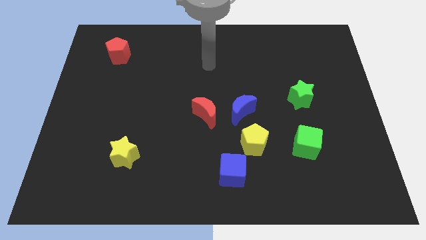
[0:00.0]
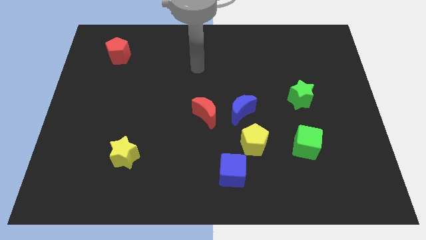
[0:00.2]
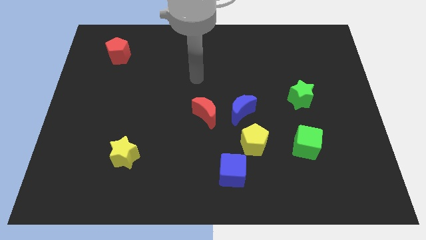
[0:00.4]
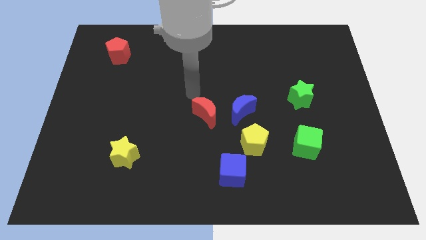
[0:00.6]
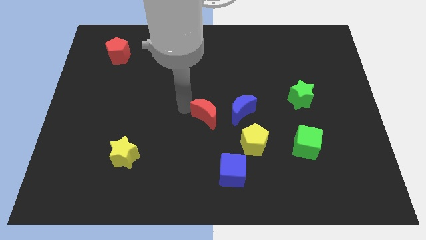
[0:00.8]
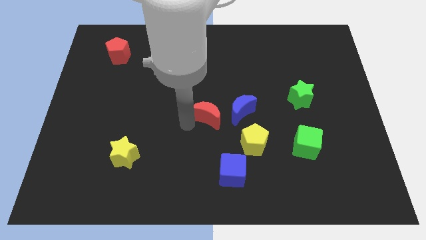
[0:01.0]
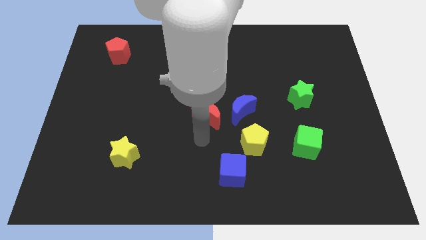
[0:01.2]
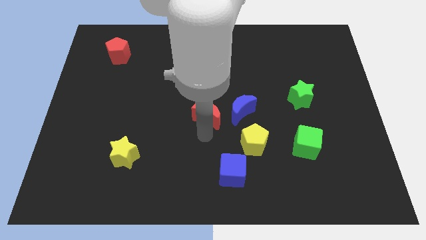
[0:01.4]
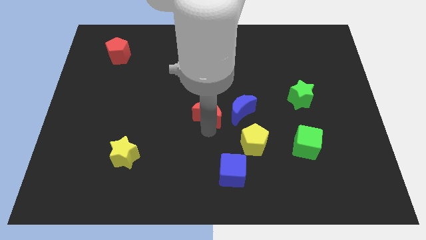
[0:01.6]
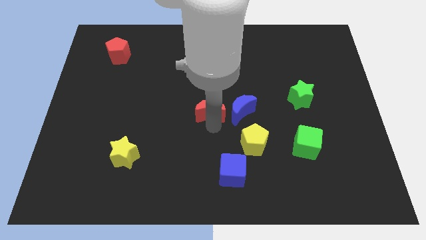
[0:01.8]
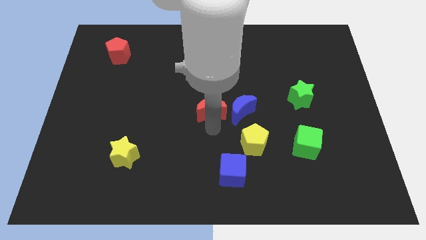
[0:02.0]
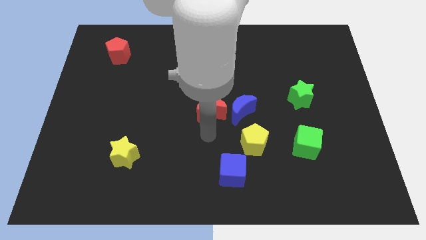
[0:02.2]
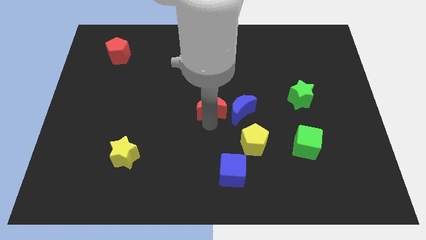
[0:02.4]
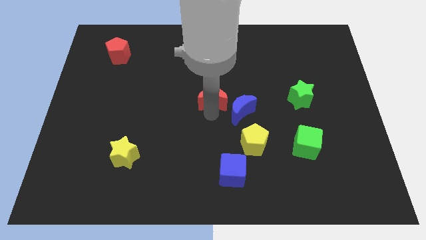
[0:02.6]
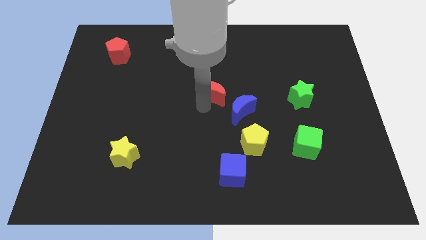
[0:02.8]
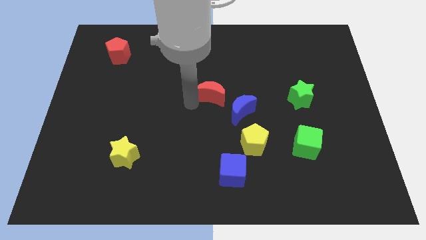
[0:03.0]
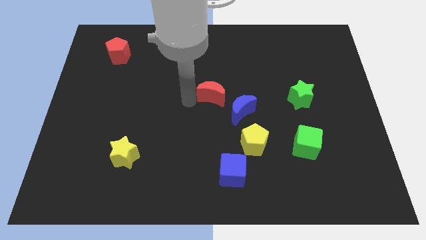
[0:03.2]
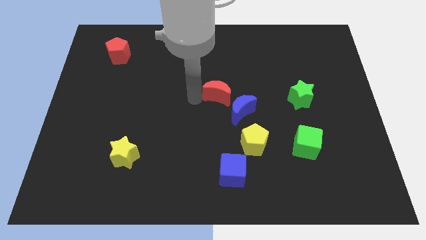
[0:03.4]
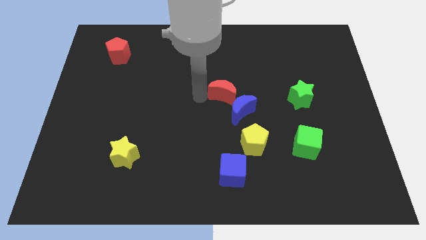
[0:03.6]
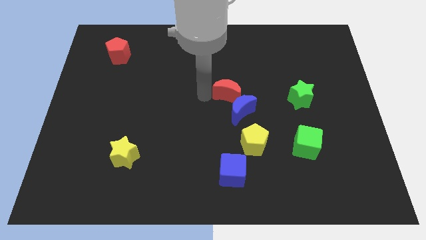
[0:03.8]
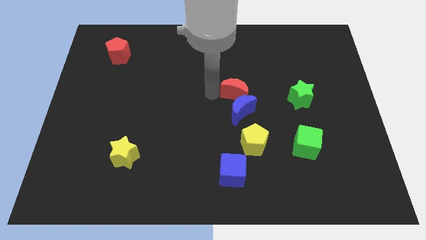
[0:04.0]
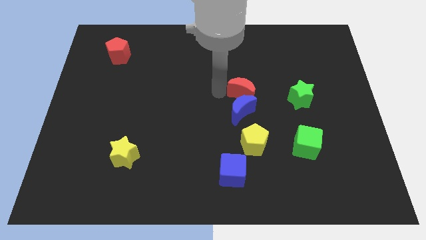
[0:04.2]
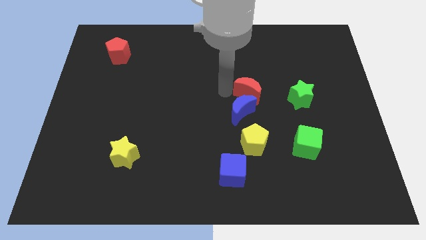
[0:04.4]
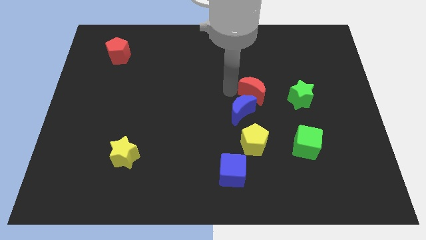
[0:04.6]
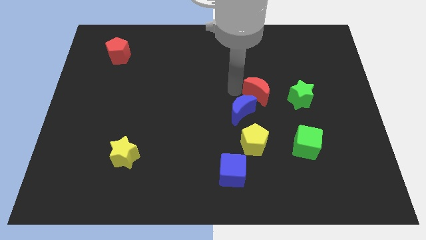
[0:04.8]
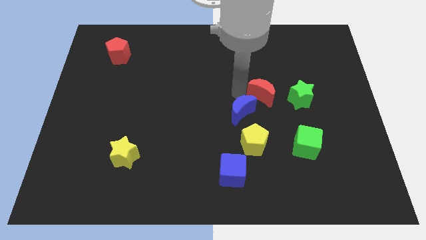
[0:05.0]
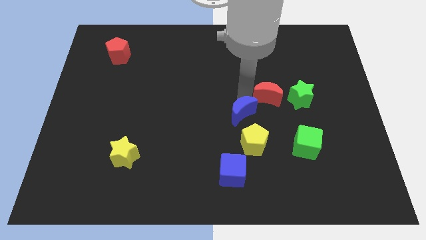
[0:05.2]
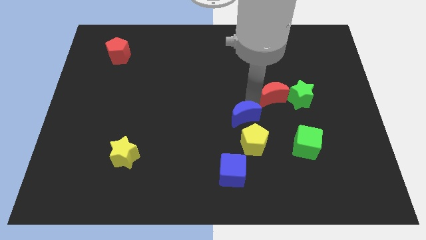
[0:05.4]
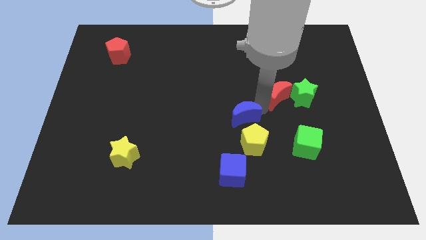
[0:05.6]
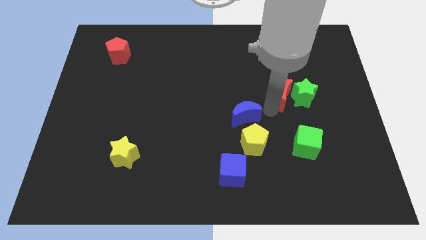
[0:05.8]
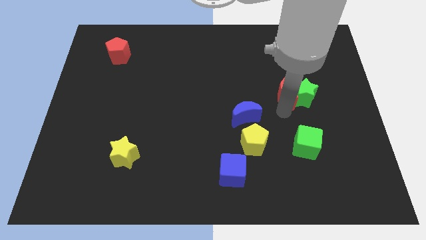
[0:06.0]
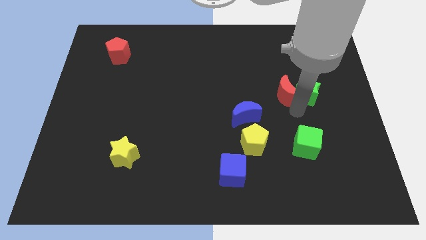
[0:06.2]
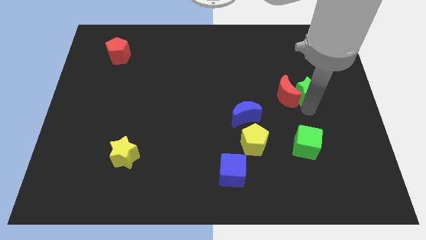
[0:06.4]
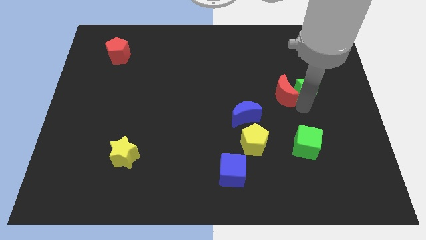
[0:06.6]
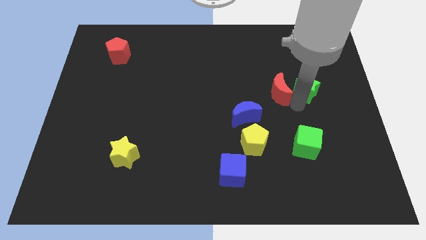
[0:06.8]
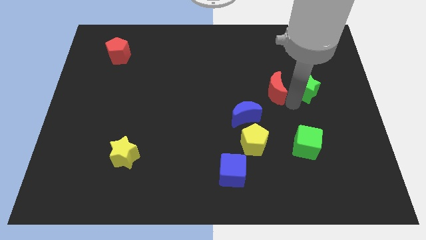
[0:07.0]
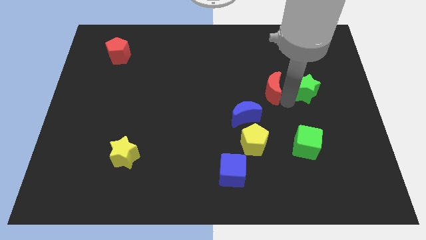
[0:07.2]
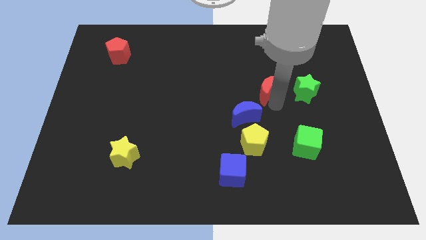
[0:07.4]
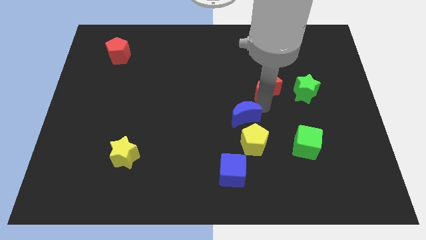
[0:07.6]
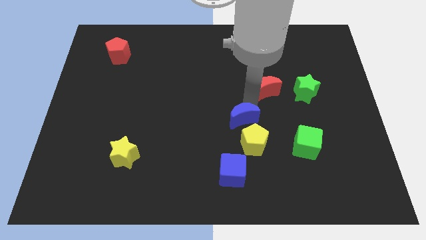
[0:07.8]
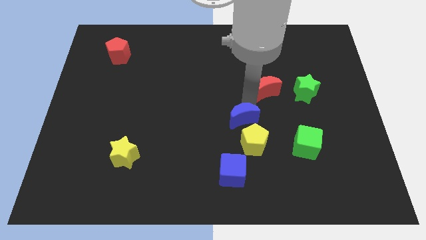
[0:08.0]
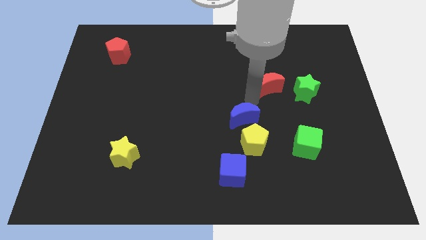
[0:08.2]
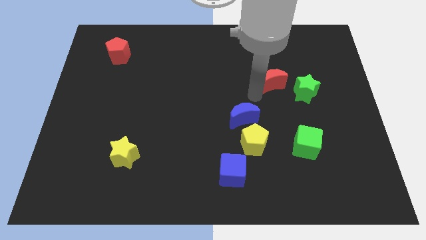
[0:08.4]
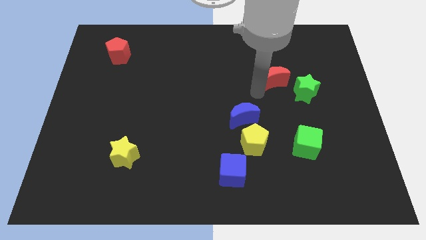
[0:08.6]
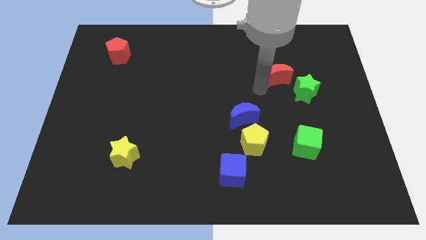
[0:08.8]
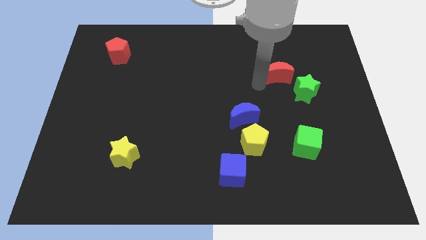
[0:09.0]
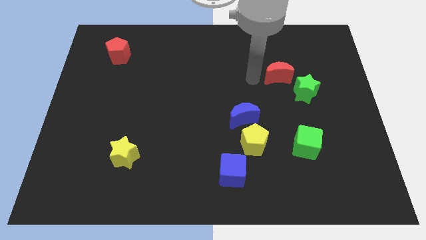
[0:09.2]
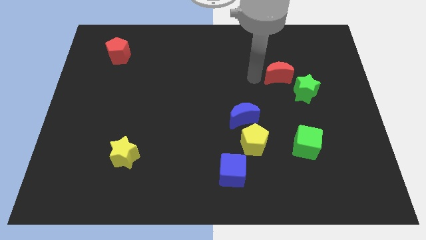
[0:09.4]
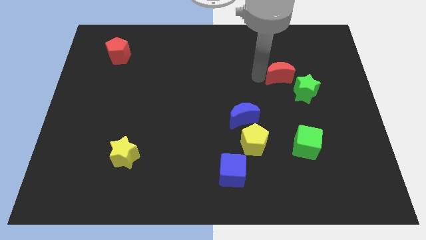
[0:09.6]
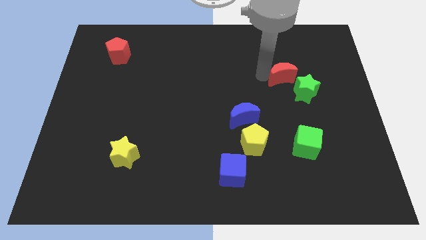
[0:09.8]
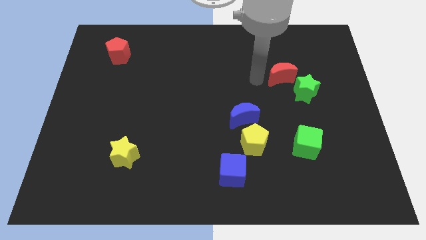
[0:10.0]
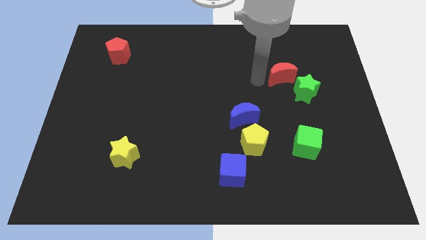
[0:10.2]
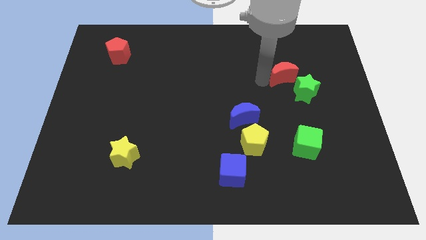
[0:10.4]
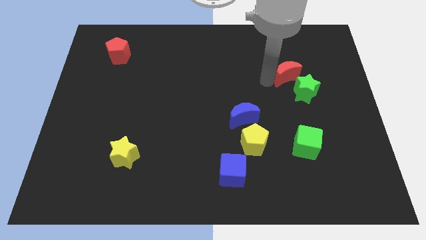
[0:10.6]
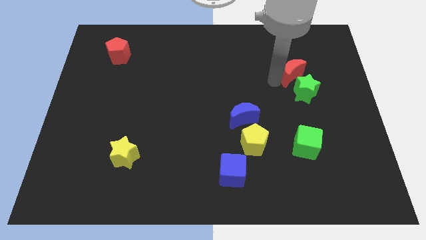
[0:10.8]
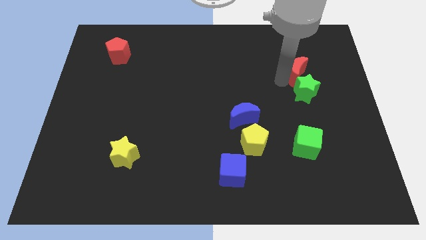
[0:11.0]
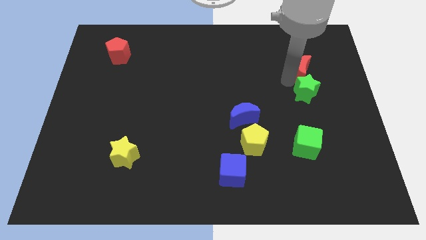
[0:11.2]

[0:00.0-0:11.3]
slide the red moon diagonally up and to the right of the green star

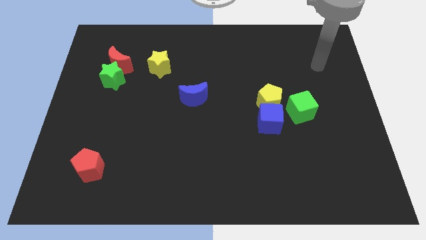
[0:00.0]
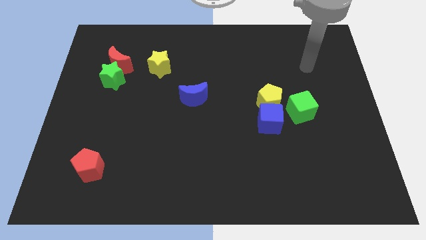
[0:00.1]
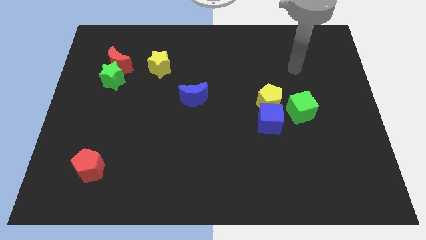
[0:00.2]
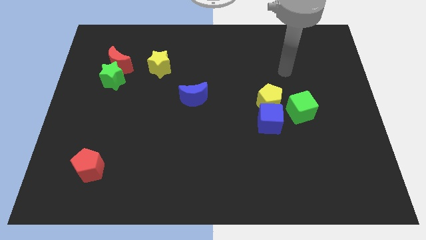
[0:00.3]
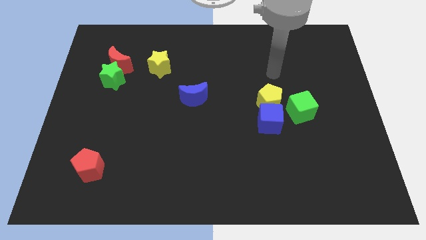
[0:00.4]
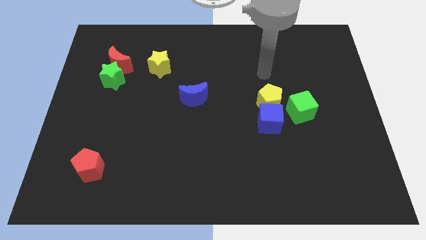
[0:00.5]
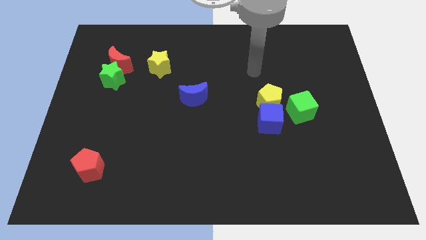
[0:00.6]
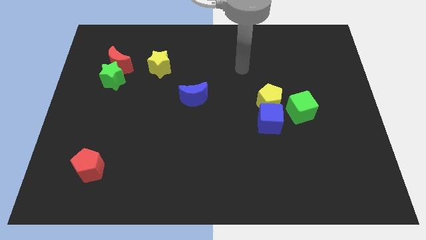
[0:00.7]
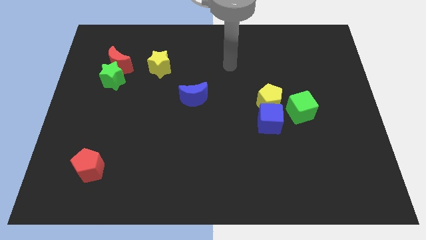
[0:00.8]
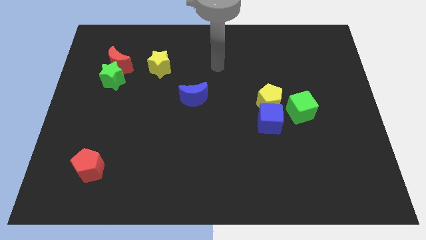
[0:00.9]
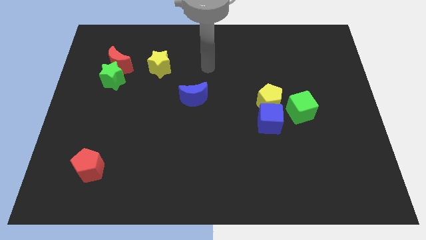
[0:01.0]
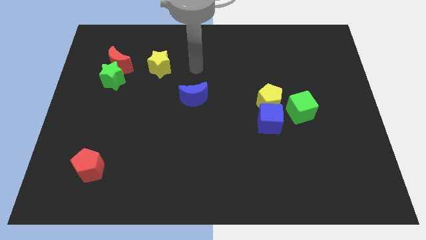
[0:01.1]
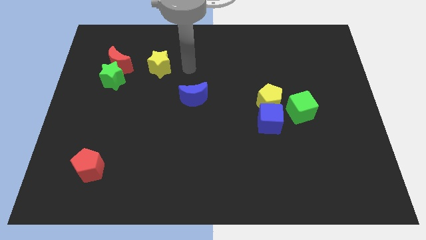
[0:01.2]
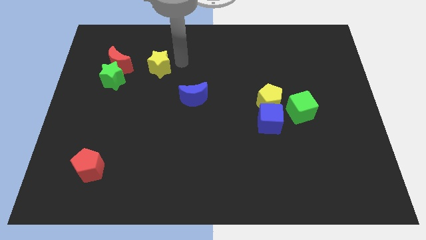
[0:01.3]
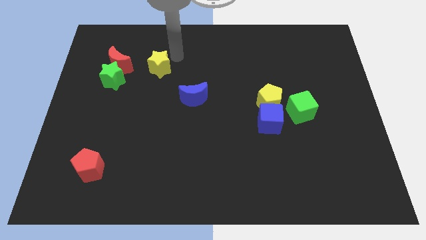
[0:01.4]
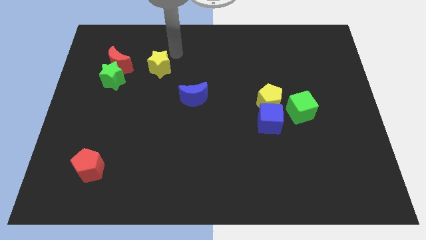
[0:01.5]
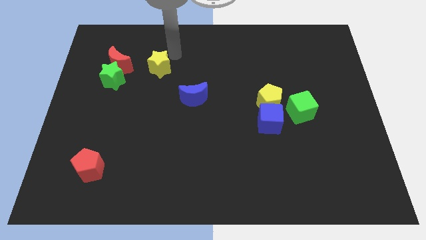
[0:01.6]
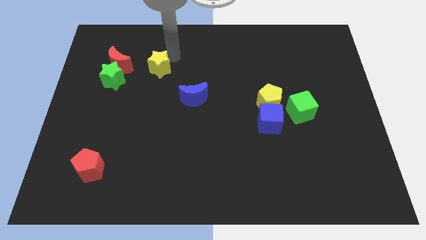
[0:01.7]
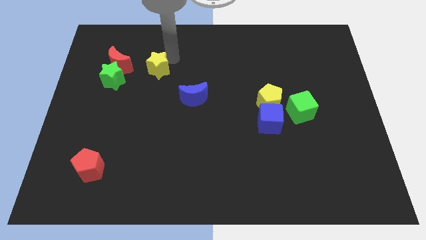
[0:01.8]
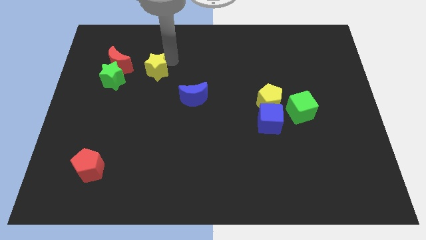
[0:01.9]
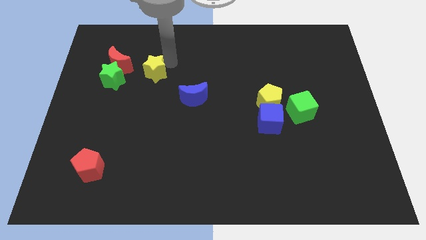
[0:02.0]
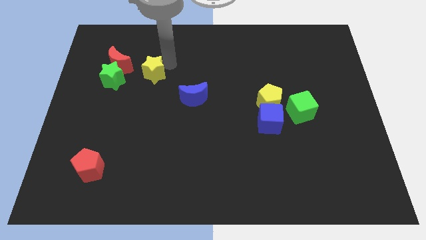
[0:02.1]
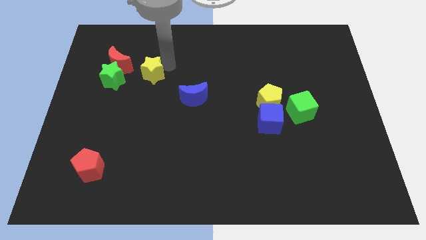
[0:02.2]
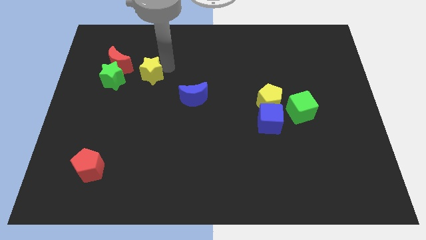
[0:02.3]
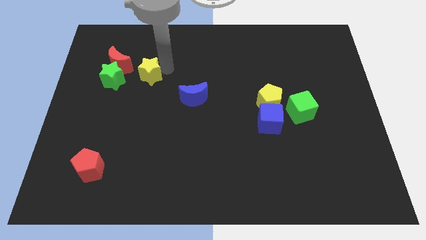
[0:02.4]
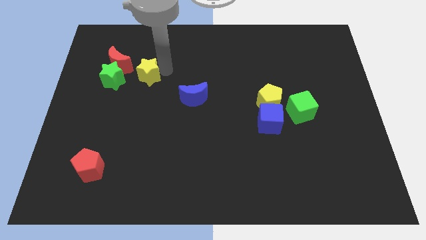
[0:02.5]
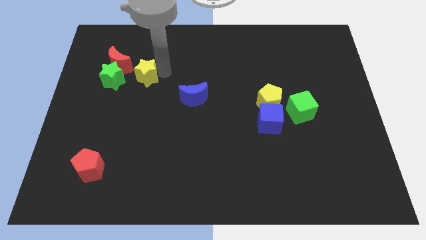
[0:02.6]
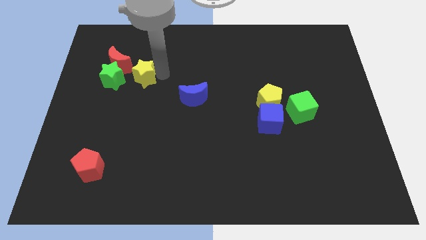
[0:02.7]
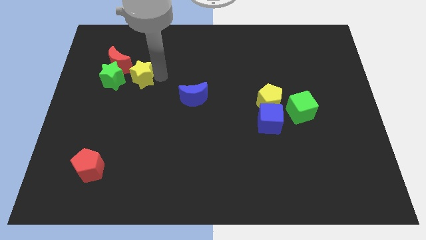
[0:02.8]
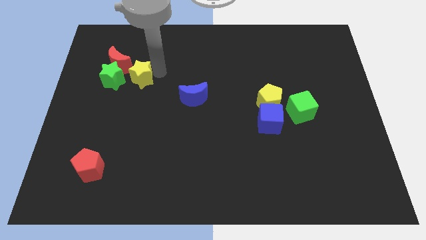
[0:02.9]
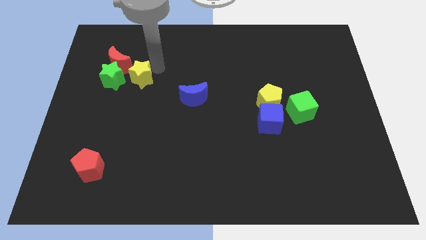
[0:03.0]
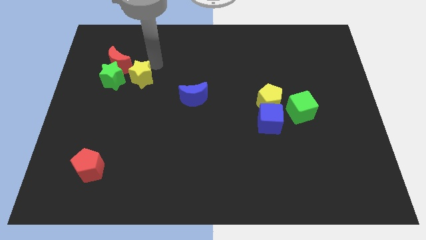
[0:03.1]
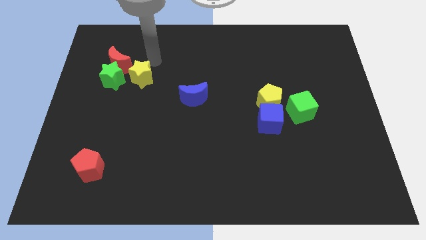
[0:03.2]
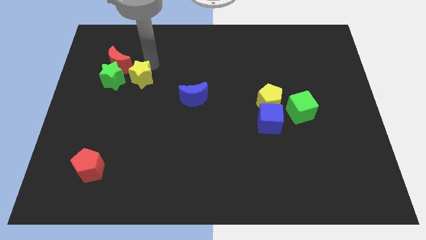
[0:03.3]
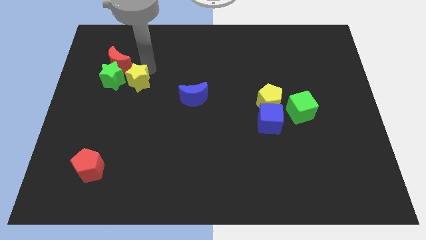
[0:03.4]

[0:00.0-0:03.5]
put the yellow star to the bottom right of the green star
